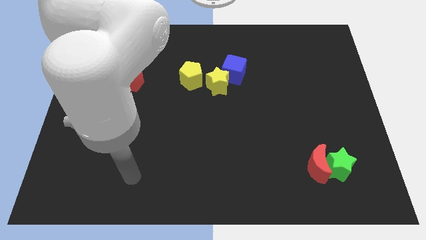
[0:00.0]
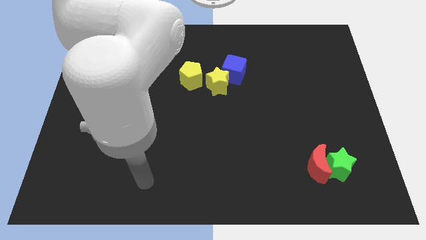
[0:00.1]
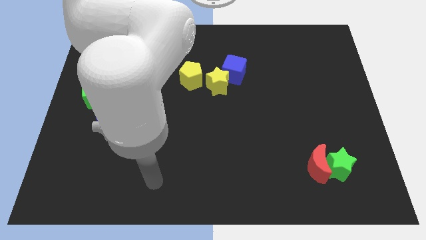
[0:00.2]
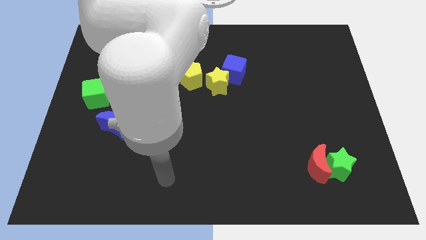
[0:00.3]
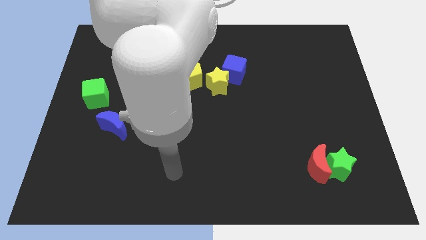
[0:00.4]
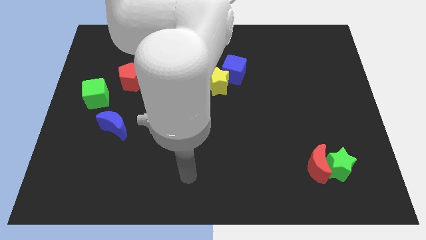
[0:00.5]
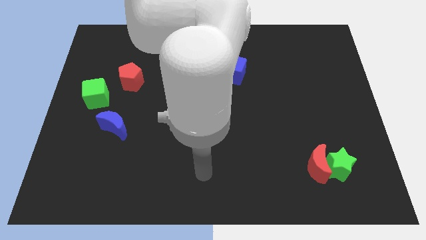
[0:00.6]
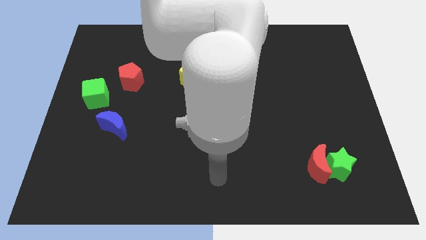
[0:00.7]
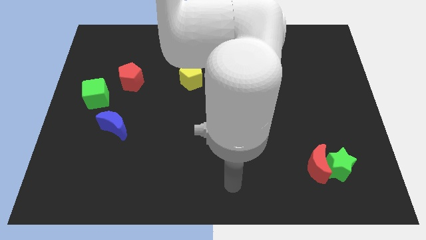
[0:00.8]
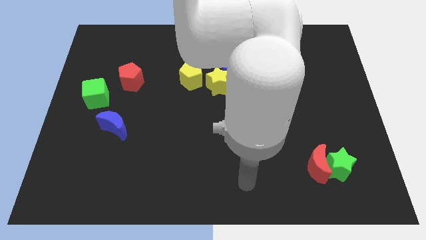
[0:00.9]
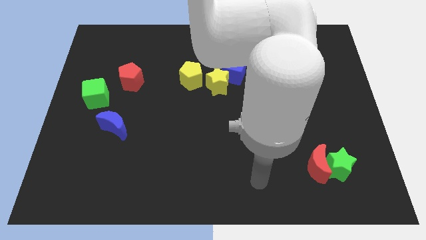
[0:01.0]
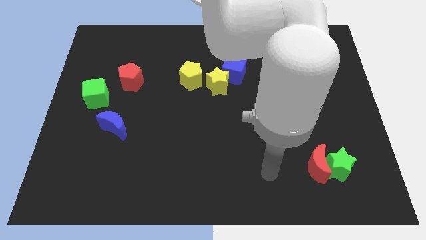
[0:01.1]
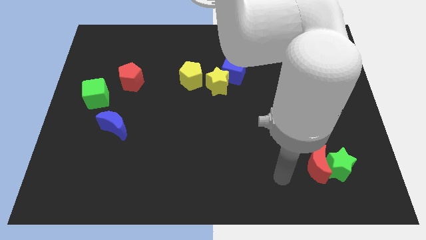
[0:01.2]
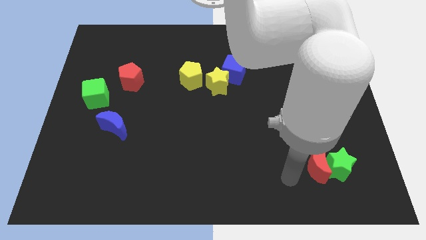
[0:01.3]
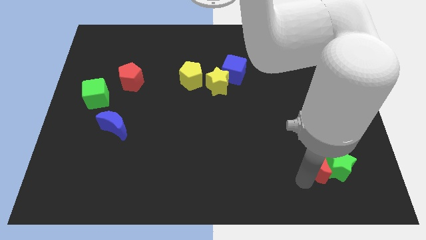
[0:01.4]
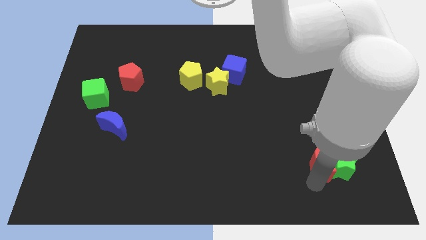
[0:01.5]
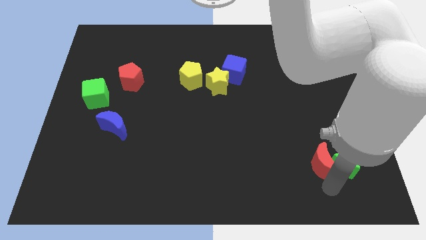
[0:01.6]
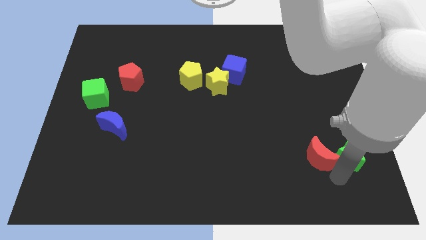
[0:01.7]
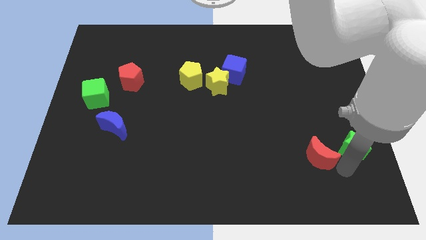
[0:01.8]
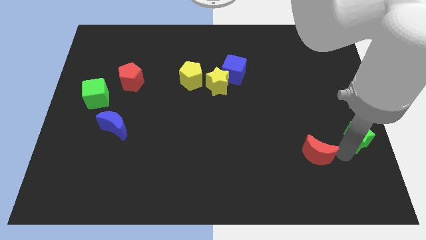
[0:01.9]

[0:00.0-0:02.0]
move the red moon away from the green star

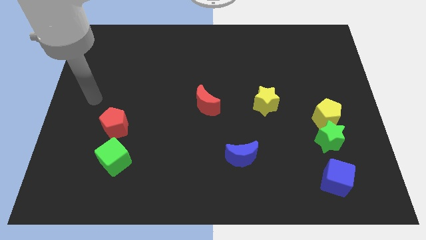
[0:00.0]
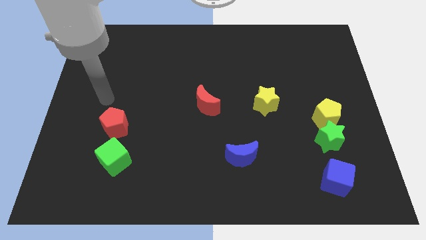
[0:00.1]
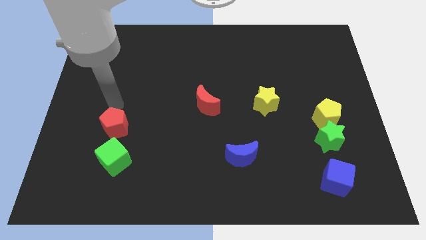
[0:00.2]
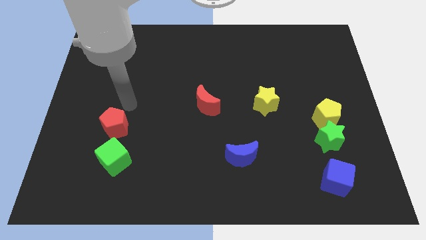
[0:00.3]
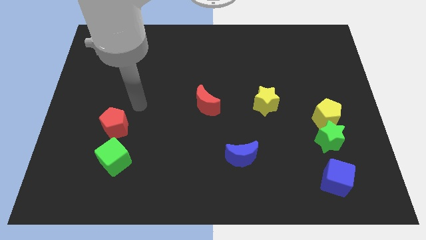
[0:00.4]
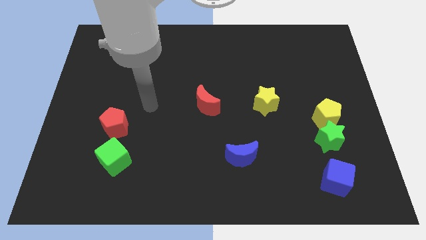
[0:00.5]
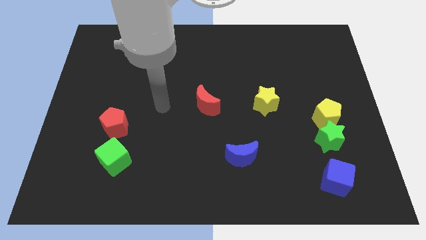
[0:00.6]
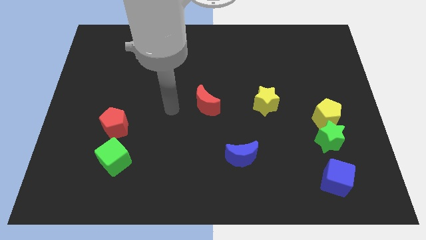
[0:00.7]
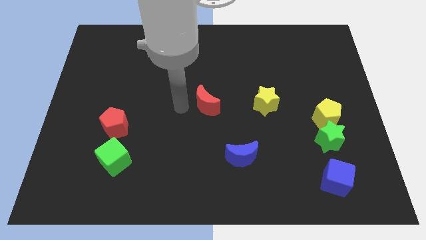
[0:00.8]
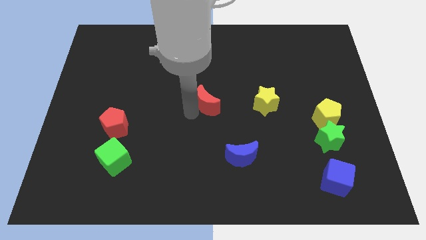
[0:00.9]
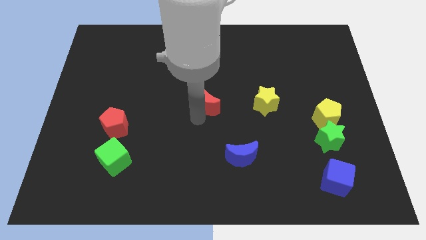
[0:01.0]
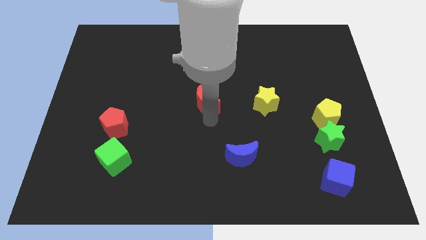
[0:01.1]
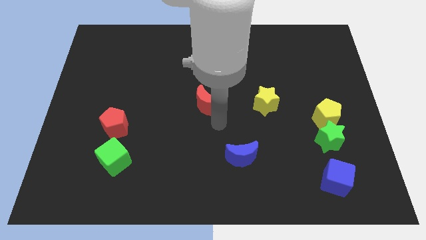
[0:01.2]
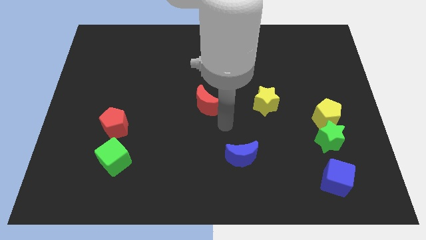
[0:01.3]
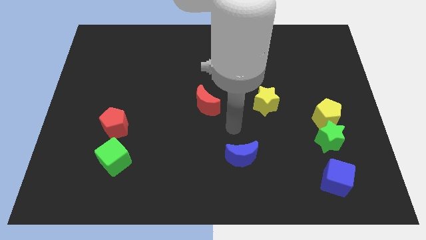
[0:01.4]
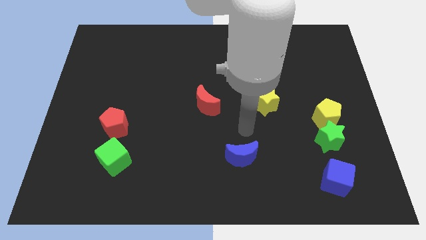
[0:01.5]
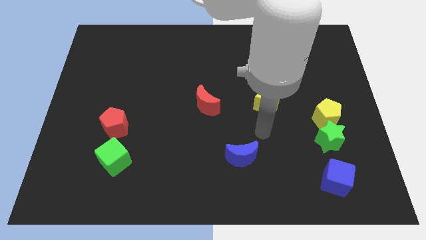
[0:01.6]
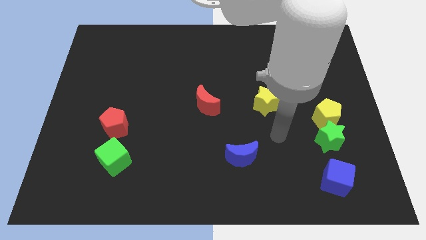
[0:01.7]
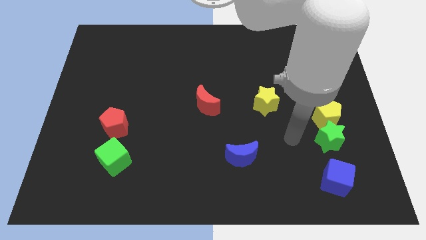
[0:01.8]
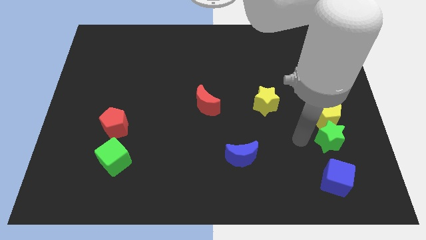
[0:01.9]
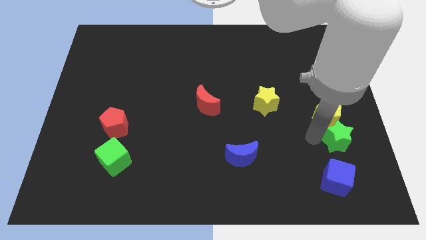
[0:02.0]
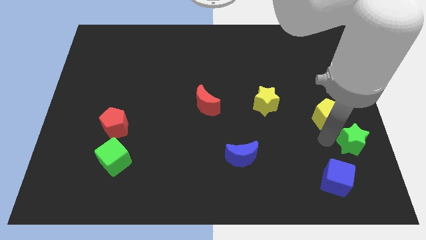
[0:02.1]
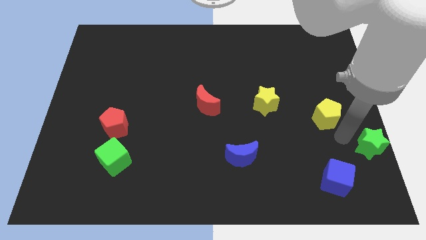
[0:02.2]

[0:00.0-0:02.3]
pull the yellow pentagon apart from the green star

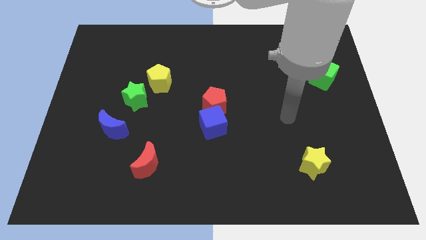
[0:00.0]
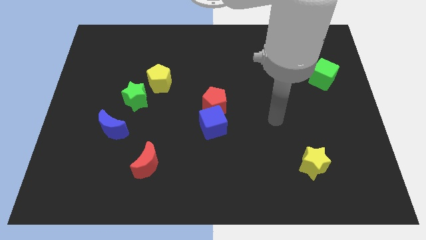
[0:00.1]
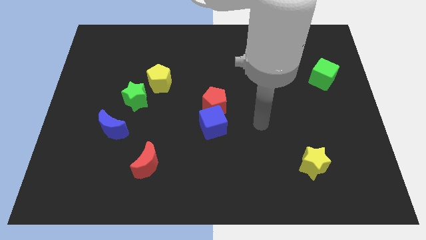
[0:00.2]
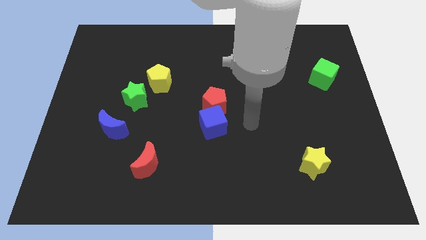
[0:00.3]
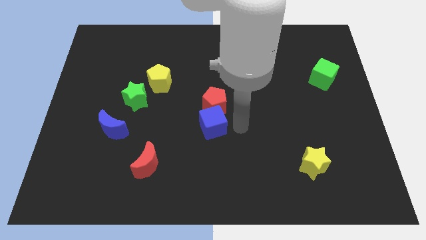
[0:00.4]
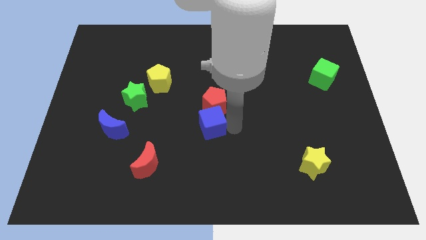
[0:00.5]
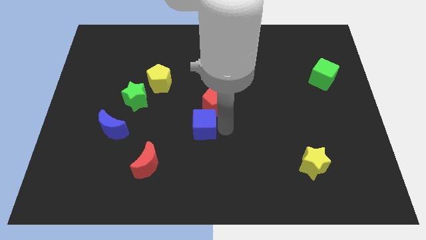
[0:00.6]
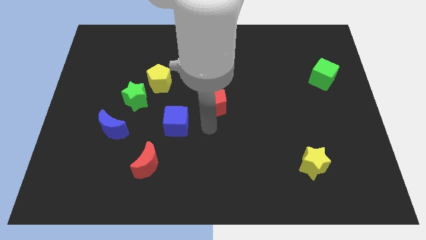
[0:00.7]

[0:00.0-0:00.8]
move the red pentagon away from the blue cube

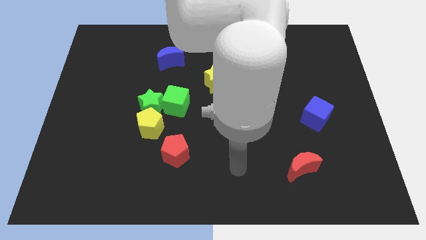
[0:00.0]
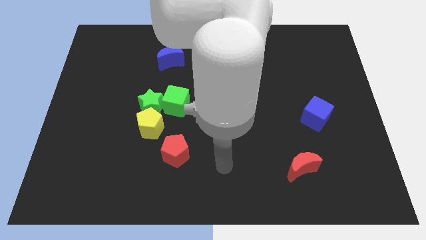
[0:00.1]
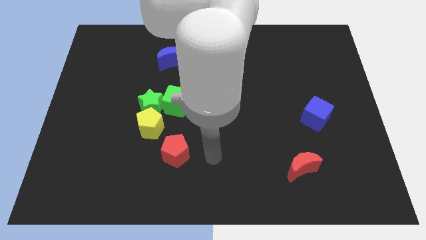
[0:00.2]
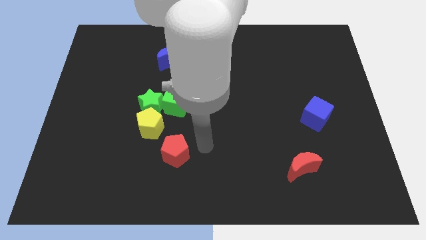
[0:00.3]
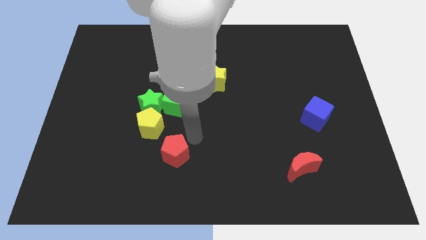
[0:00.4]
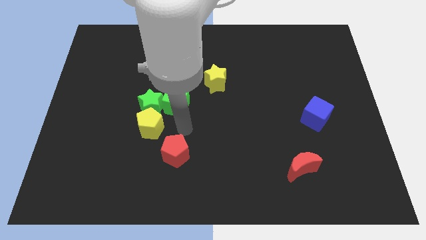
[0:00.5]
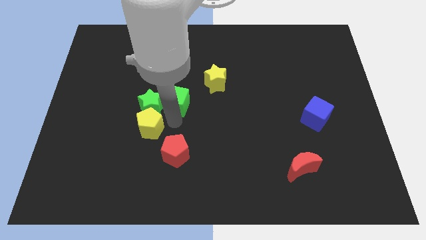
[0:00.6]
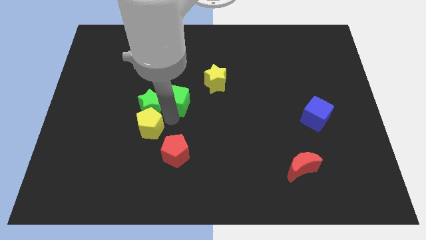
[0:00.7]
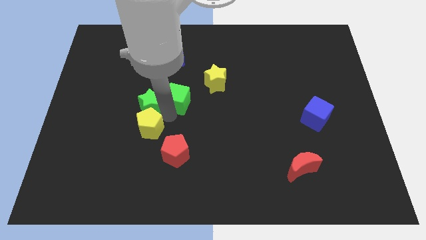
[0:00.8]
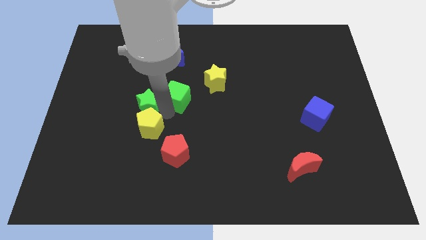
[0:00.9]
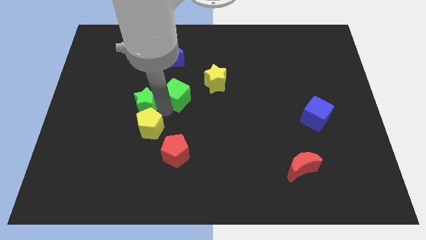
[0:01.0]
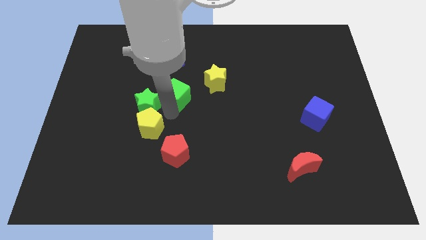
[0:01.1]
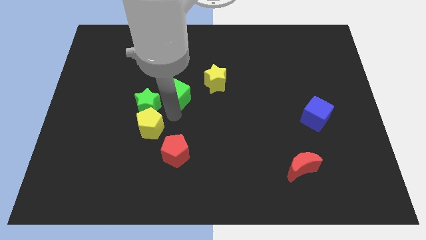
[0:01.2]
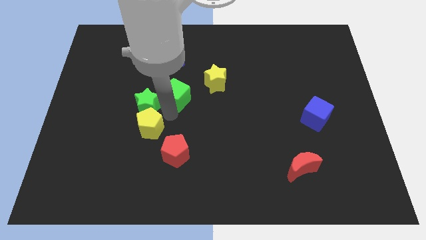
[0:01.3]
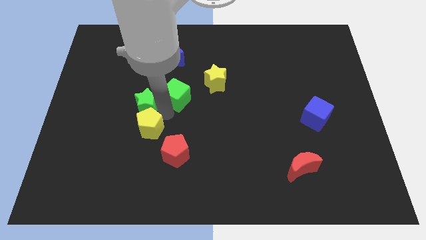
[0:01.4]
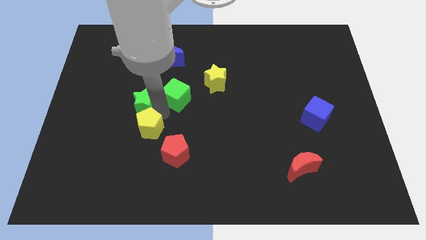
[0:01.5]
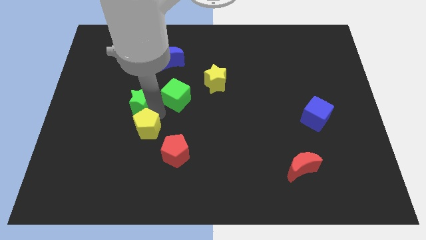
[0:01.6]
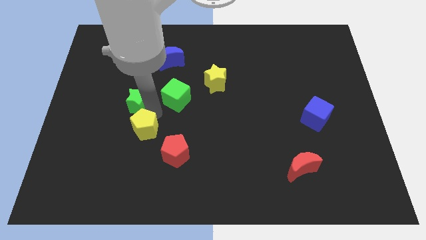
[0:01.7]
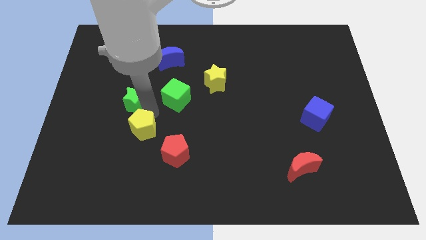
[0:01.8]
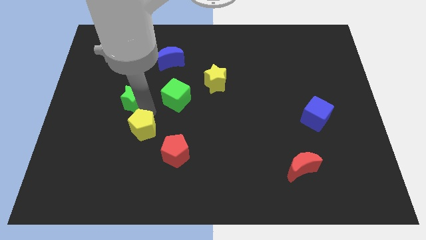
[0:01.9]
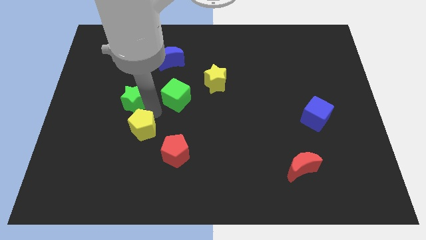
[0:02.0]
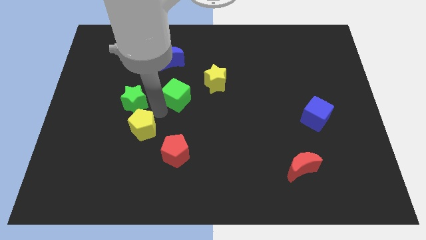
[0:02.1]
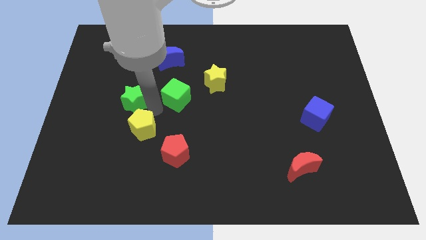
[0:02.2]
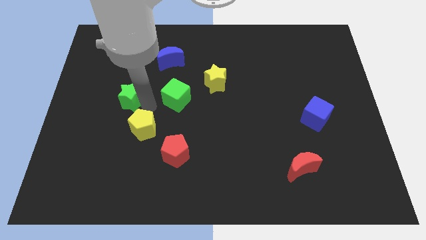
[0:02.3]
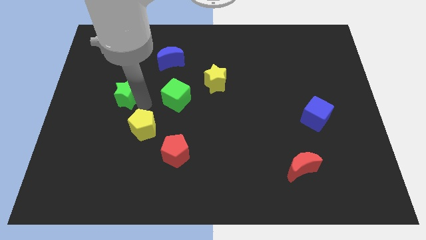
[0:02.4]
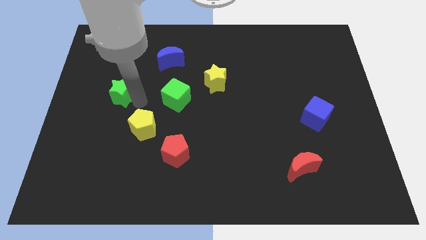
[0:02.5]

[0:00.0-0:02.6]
pull the green star apart from the yellow pentagon and green cube

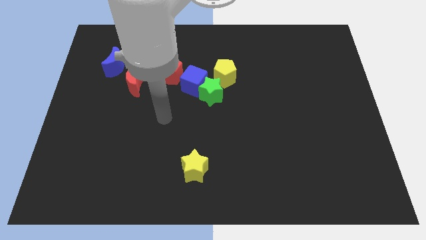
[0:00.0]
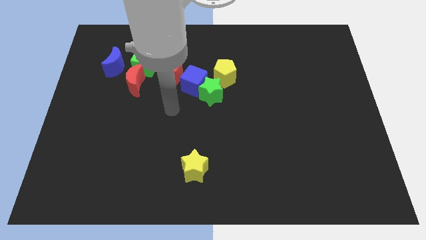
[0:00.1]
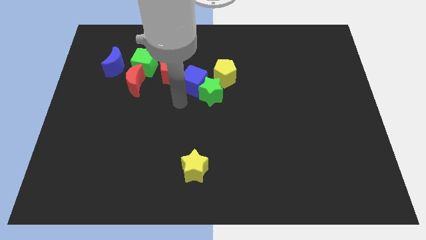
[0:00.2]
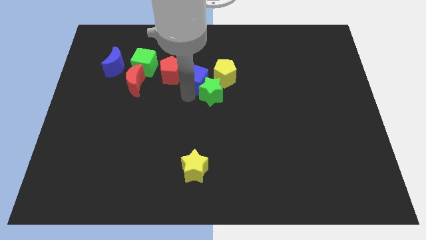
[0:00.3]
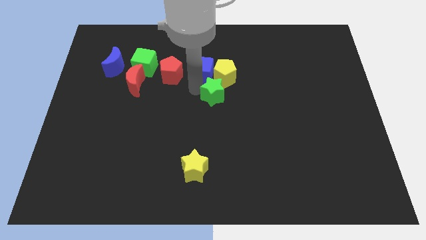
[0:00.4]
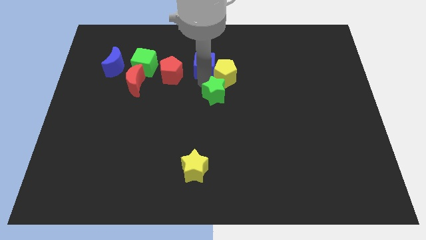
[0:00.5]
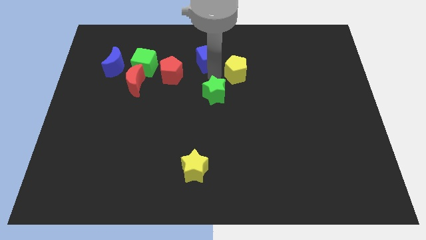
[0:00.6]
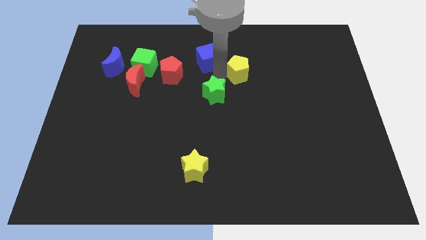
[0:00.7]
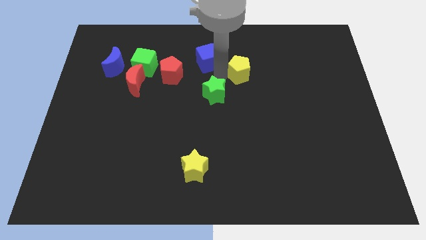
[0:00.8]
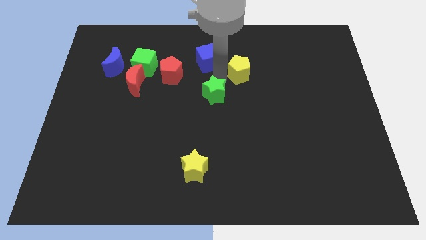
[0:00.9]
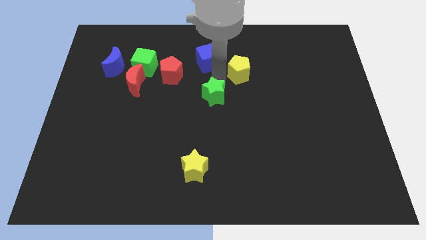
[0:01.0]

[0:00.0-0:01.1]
move the green star away from the blue cube and yellow pentagon

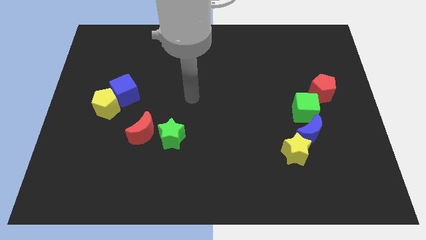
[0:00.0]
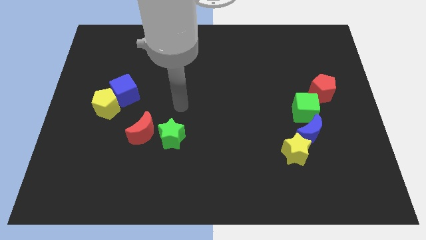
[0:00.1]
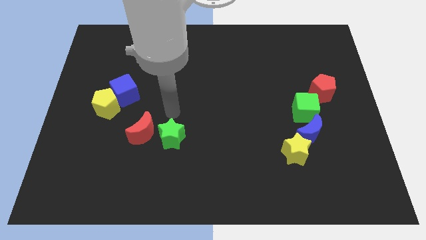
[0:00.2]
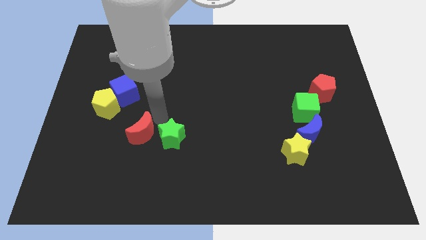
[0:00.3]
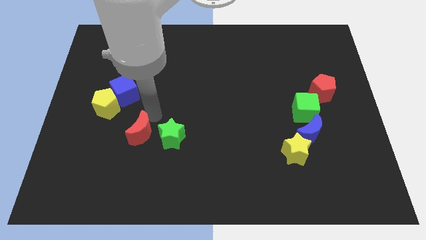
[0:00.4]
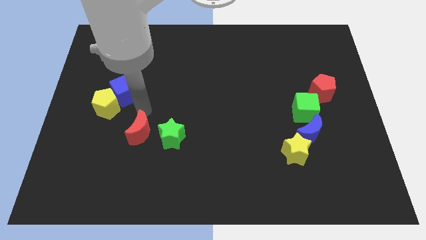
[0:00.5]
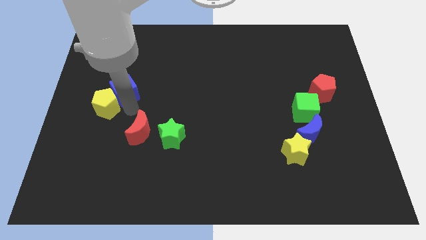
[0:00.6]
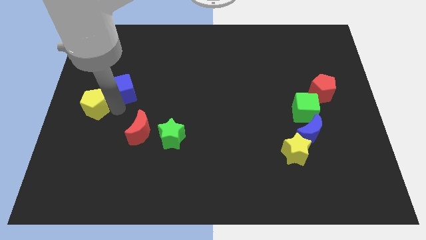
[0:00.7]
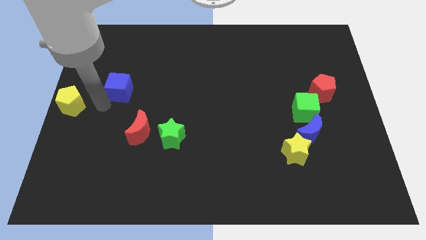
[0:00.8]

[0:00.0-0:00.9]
move the blue cube away from the yellow pentagon
